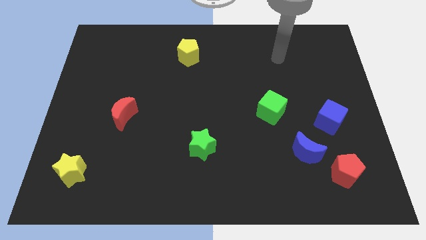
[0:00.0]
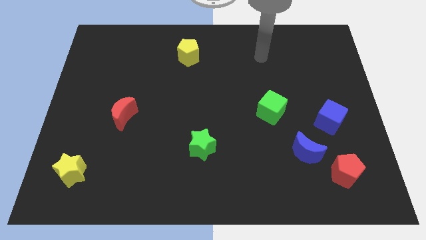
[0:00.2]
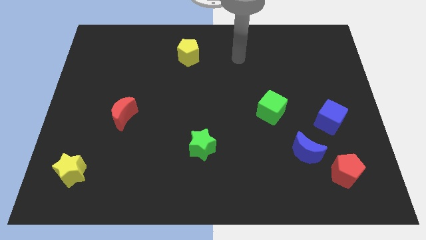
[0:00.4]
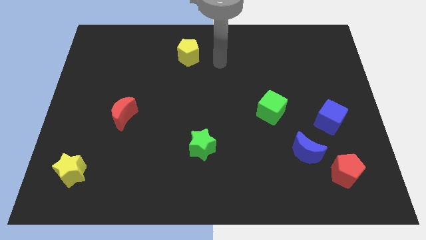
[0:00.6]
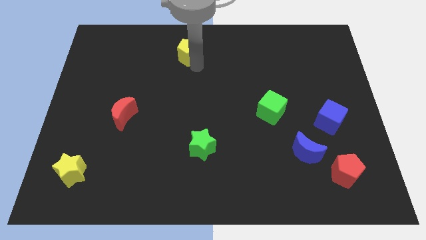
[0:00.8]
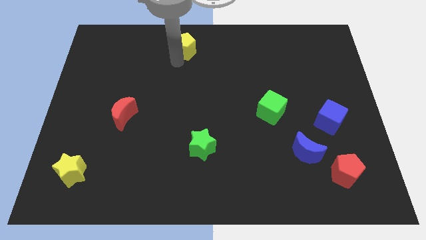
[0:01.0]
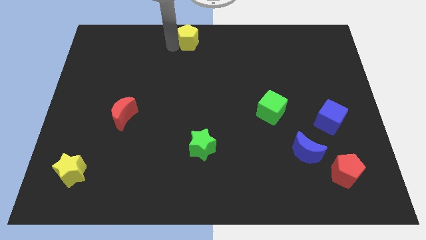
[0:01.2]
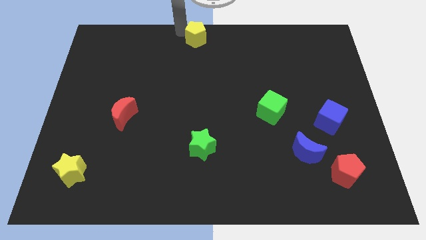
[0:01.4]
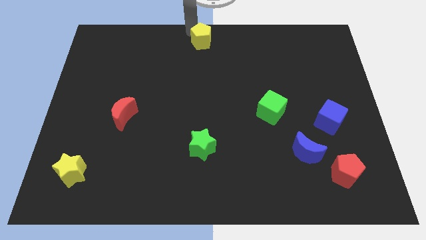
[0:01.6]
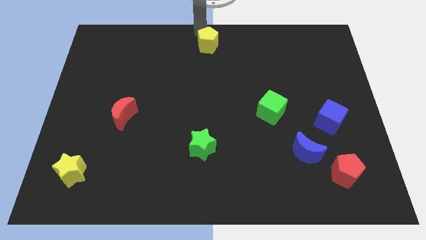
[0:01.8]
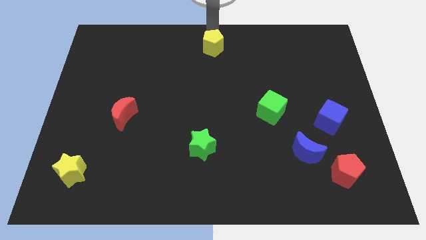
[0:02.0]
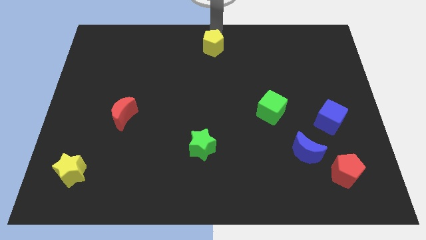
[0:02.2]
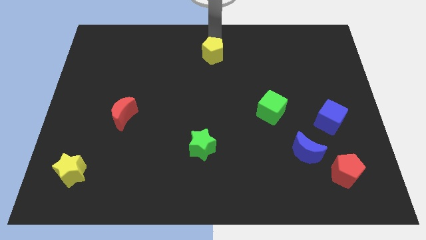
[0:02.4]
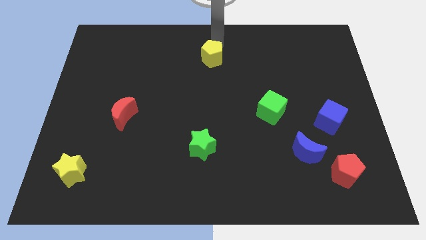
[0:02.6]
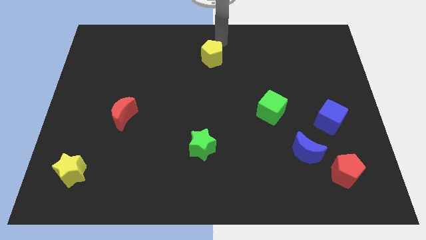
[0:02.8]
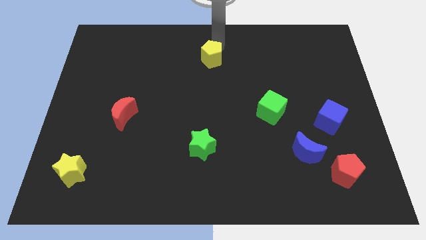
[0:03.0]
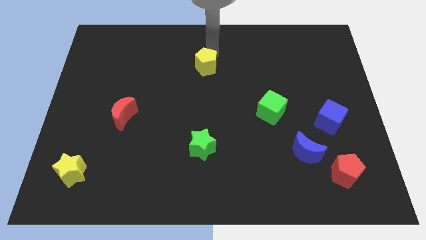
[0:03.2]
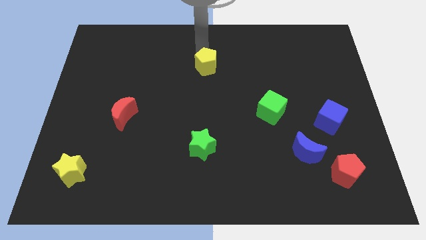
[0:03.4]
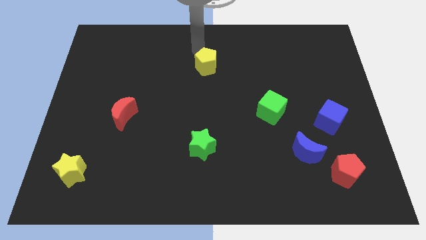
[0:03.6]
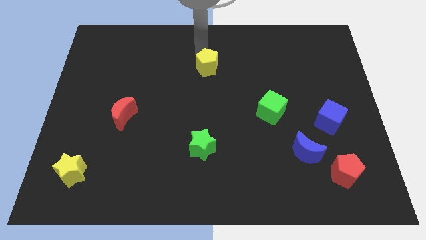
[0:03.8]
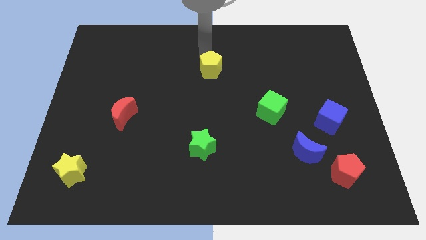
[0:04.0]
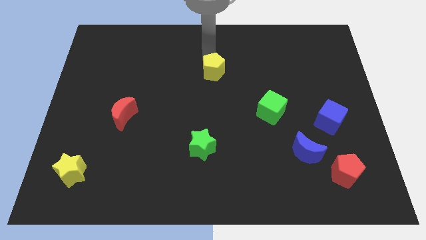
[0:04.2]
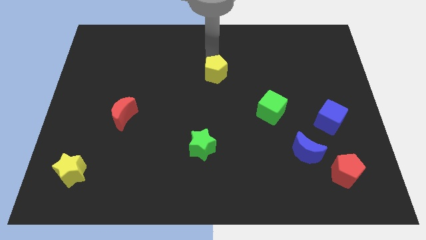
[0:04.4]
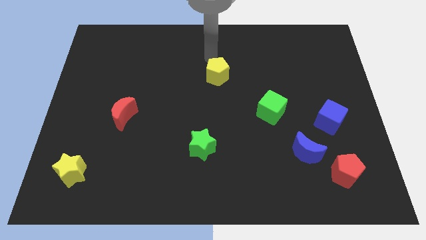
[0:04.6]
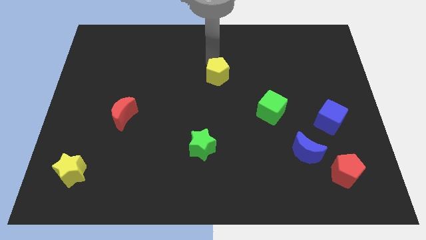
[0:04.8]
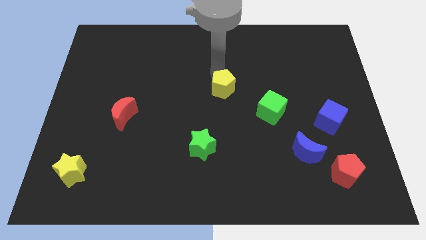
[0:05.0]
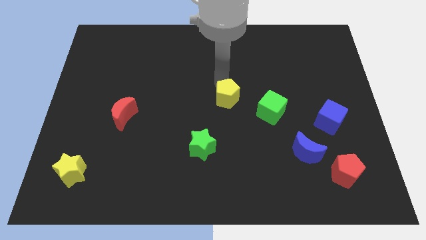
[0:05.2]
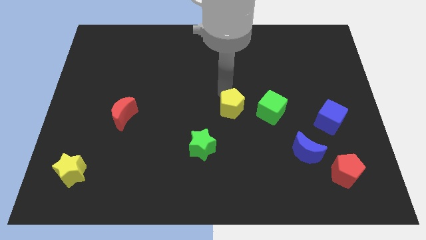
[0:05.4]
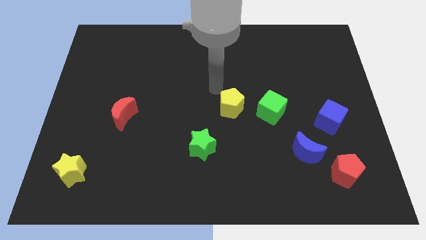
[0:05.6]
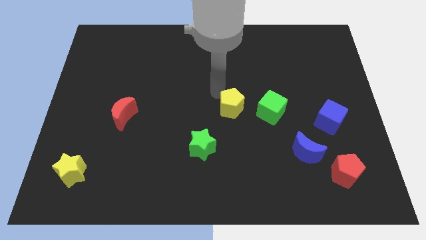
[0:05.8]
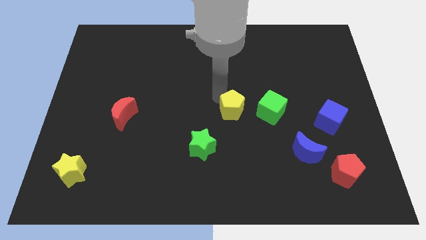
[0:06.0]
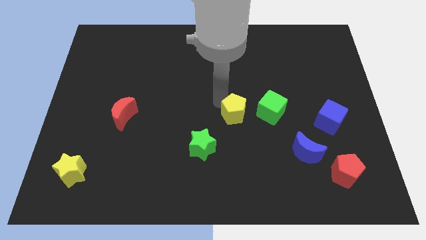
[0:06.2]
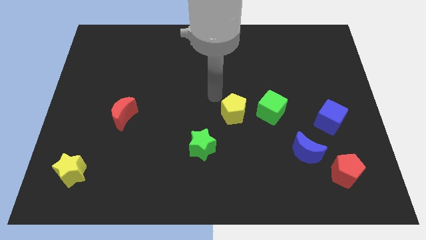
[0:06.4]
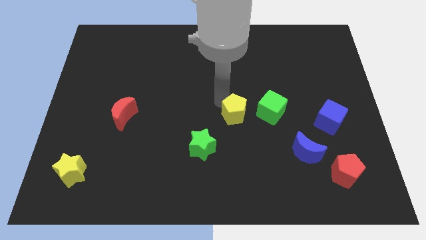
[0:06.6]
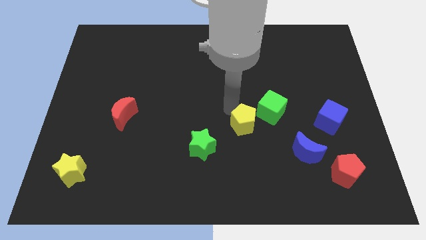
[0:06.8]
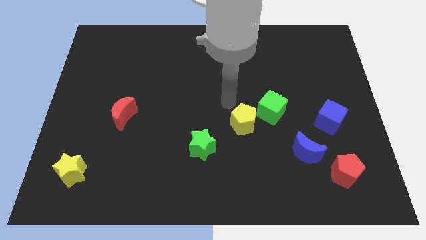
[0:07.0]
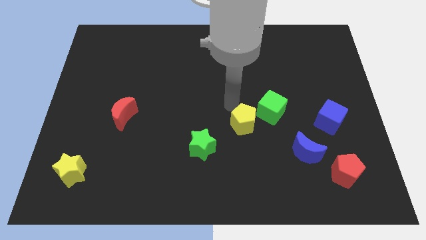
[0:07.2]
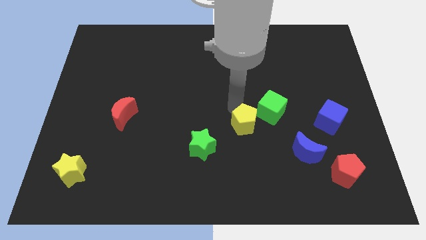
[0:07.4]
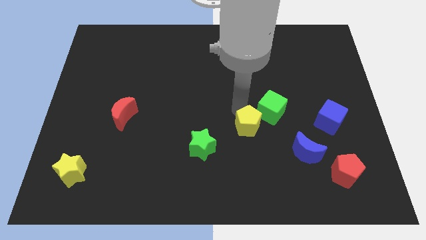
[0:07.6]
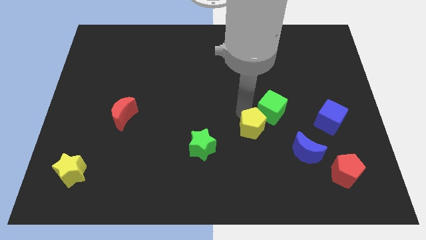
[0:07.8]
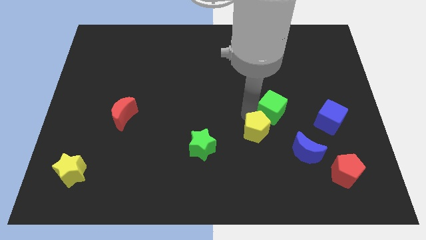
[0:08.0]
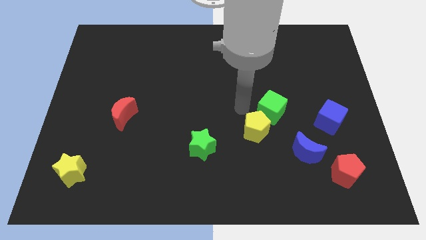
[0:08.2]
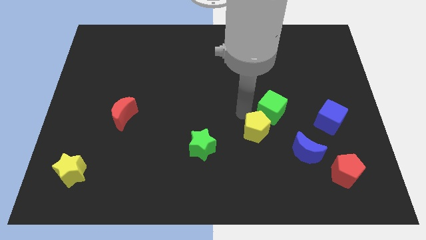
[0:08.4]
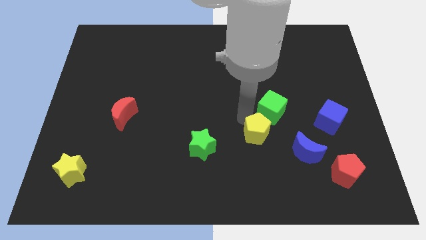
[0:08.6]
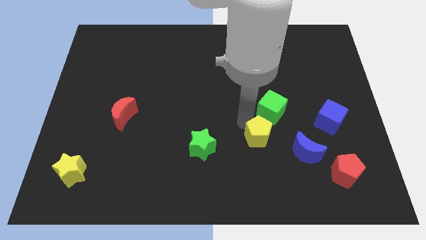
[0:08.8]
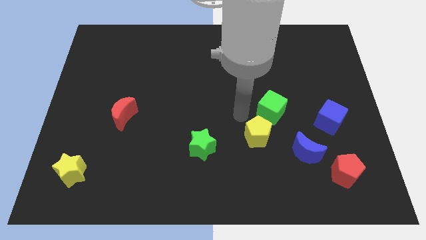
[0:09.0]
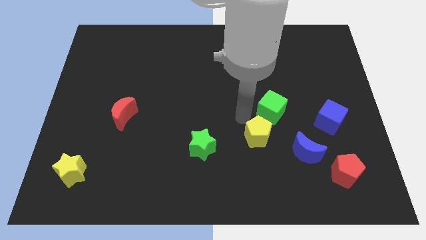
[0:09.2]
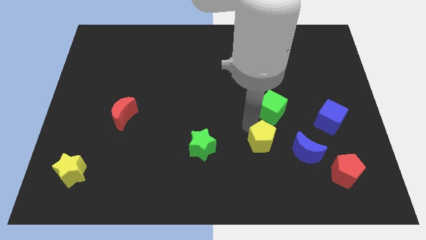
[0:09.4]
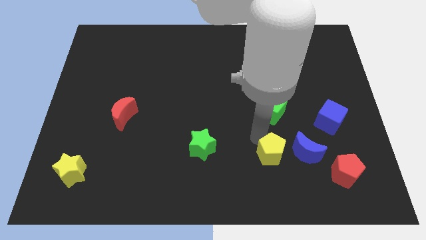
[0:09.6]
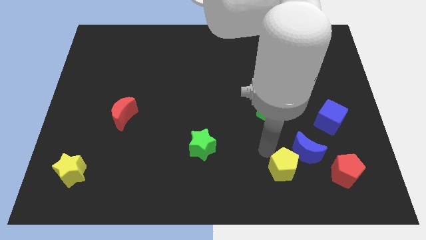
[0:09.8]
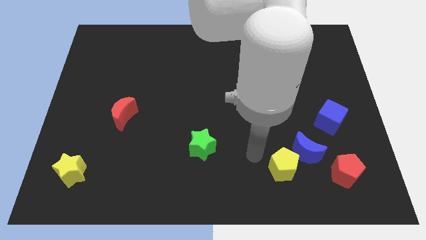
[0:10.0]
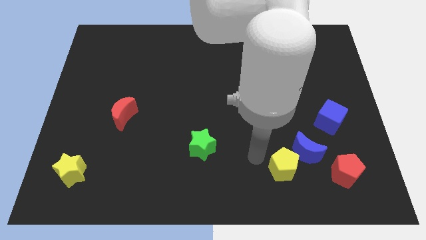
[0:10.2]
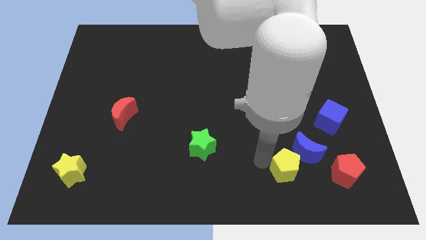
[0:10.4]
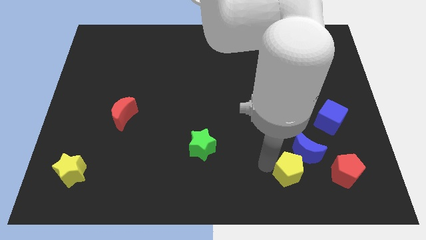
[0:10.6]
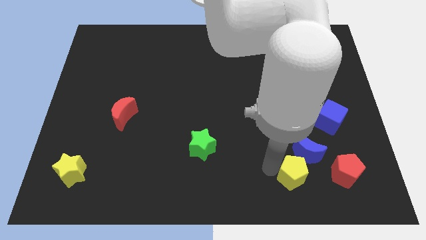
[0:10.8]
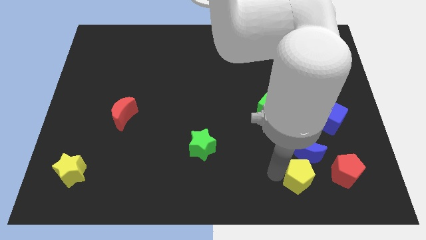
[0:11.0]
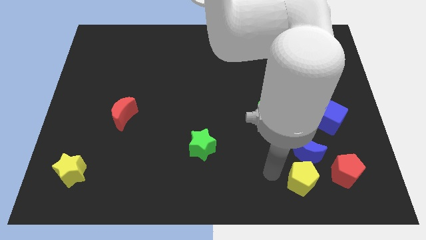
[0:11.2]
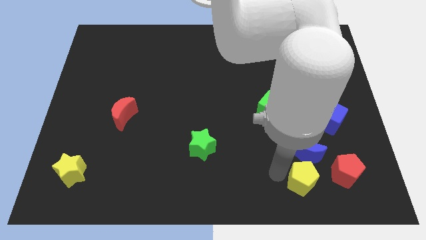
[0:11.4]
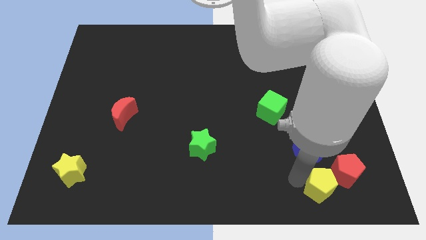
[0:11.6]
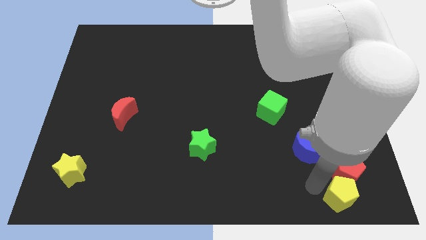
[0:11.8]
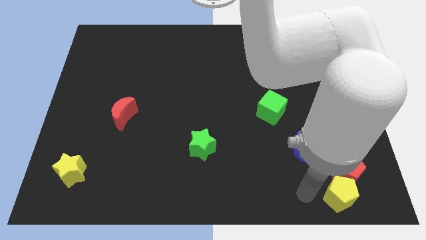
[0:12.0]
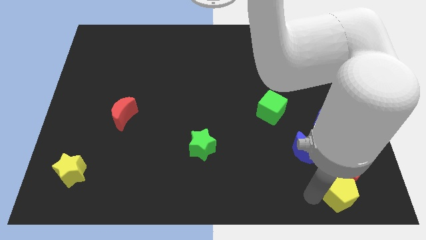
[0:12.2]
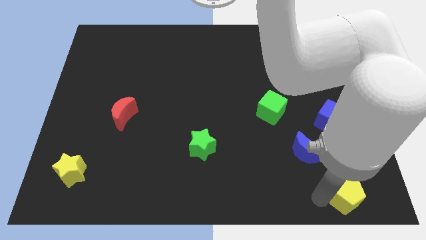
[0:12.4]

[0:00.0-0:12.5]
slide the yellow pentagon to the bottom right of the board

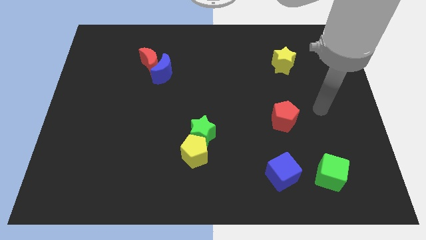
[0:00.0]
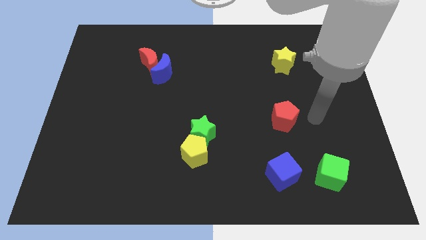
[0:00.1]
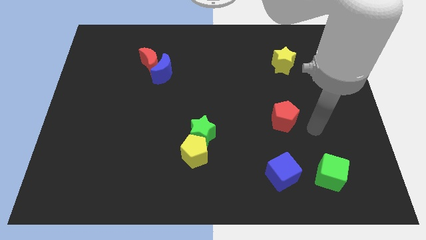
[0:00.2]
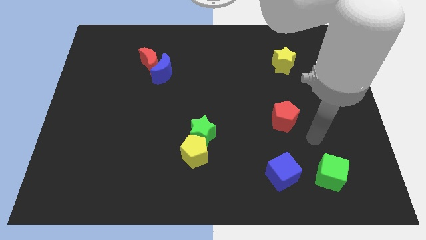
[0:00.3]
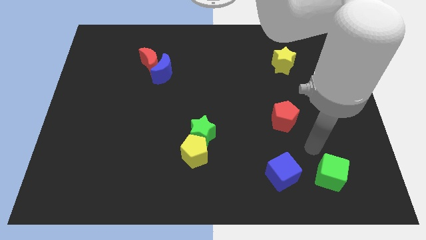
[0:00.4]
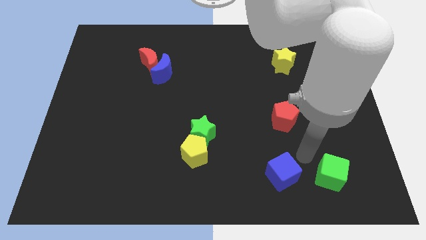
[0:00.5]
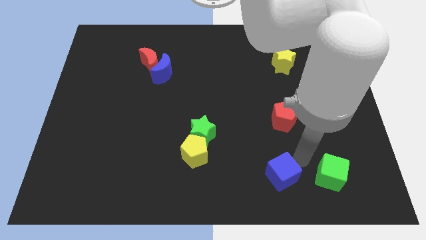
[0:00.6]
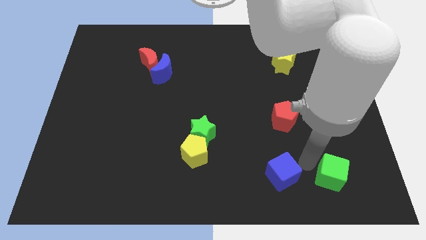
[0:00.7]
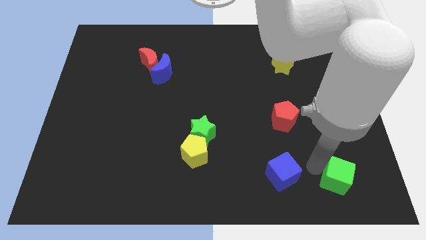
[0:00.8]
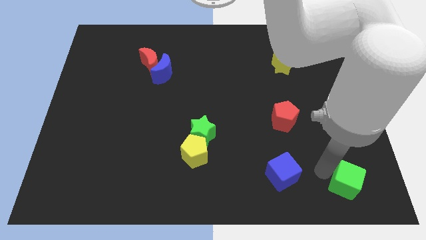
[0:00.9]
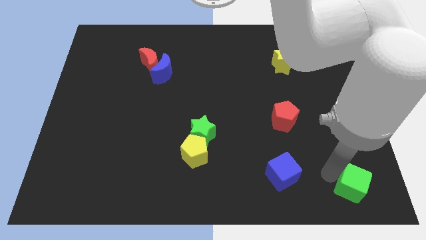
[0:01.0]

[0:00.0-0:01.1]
push the green cube to the bottom right
